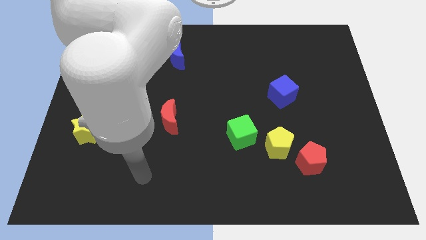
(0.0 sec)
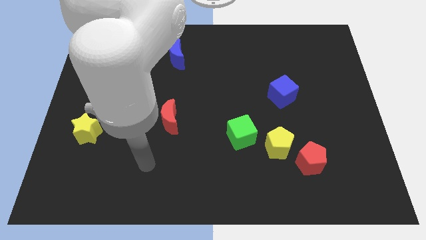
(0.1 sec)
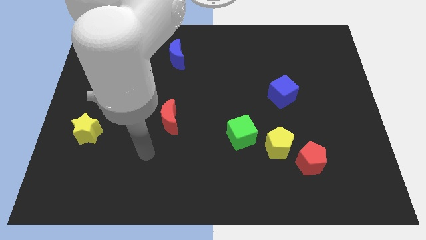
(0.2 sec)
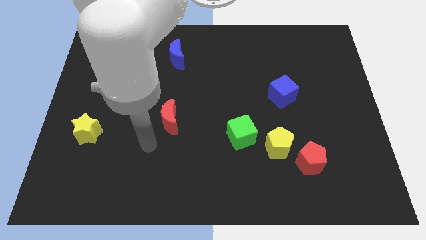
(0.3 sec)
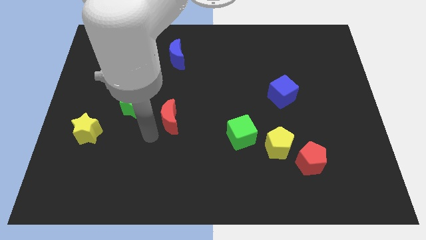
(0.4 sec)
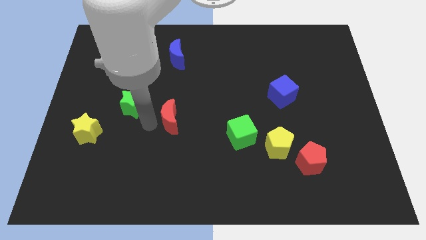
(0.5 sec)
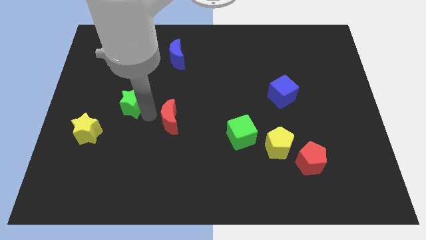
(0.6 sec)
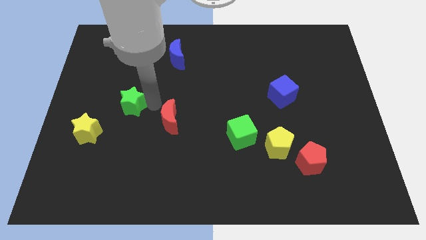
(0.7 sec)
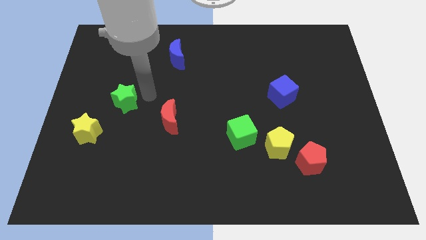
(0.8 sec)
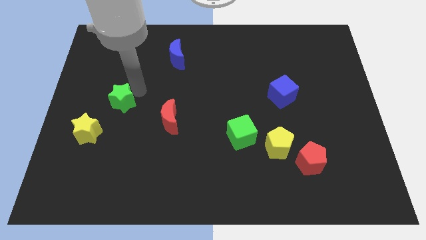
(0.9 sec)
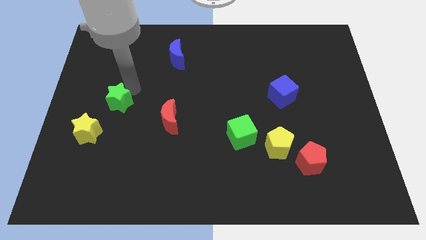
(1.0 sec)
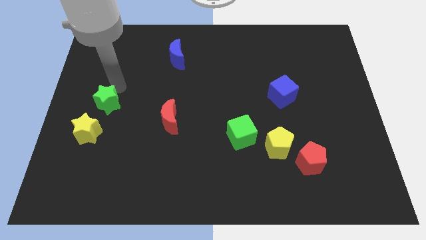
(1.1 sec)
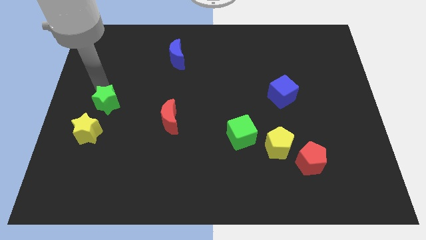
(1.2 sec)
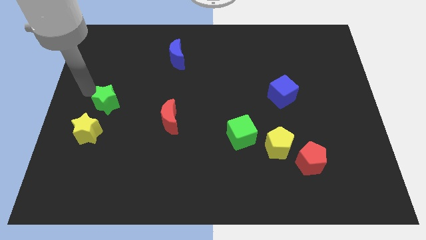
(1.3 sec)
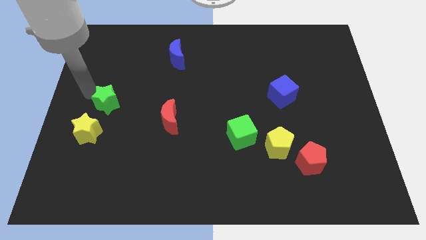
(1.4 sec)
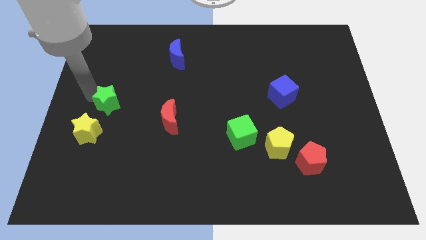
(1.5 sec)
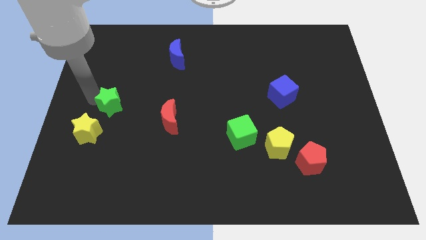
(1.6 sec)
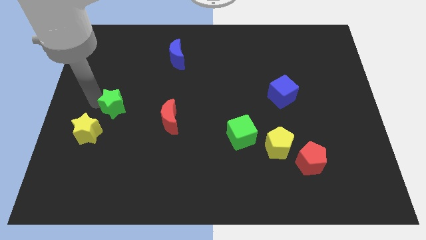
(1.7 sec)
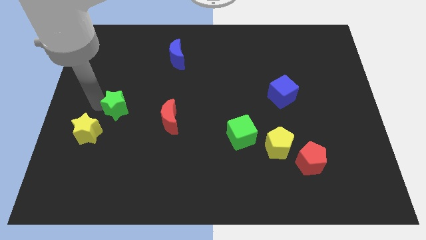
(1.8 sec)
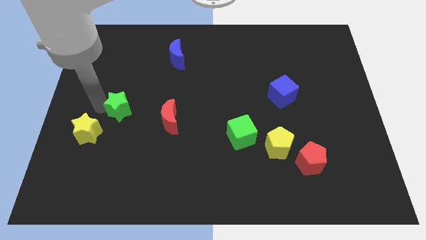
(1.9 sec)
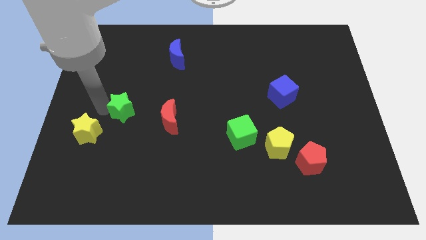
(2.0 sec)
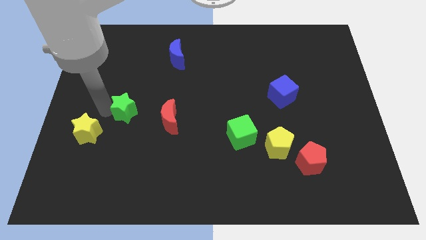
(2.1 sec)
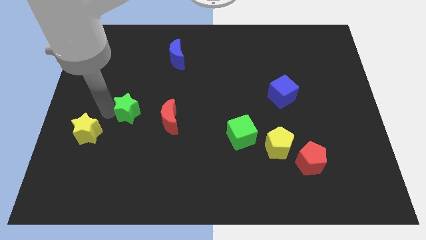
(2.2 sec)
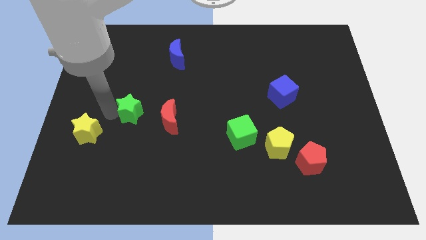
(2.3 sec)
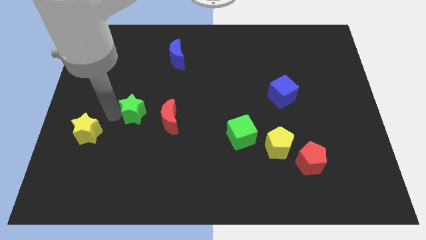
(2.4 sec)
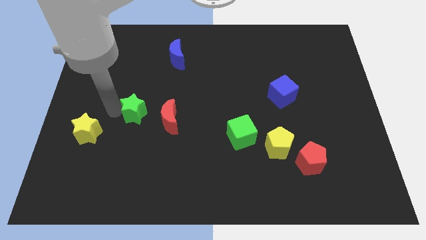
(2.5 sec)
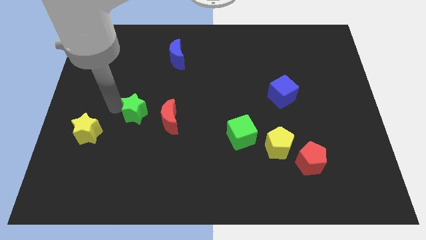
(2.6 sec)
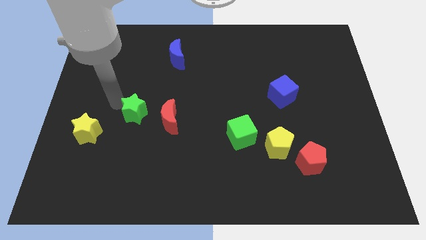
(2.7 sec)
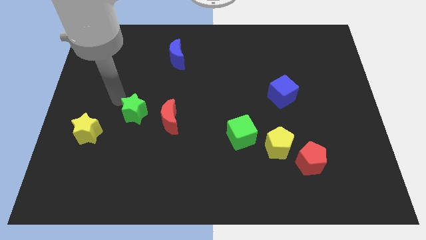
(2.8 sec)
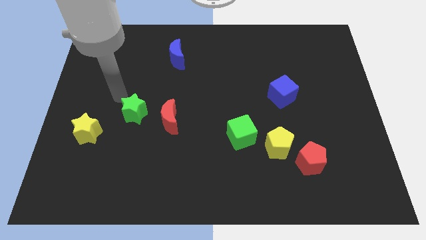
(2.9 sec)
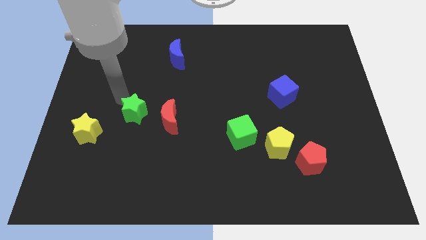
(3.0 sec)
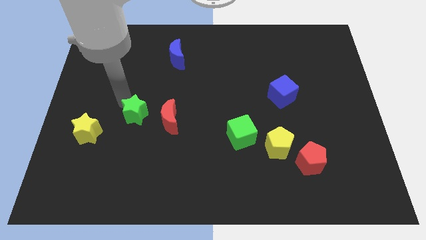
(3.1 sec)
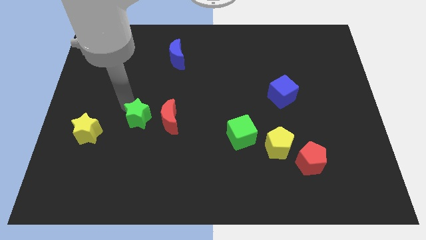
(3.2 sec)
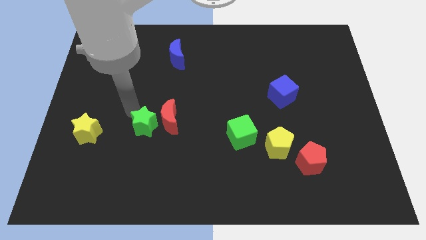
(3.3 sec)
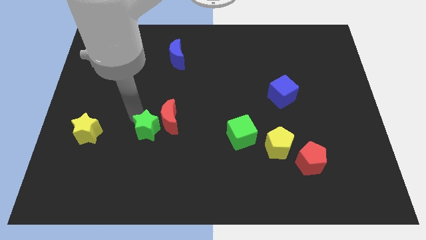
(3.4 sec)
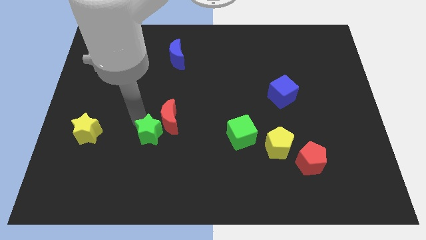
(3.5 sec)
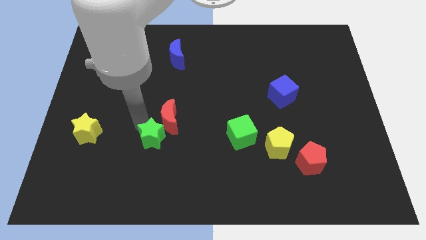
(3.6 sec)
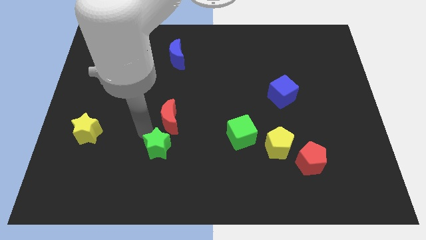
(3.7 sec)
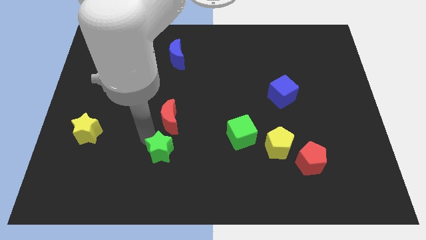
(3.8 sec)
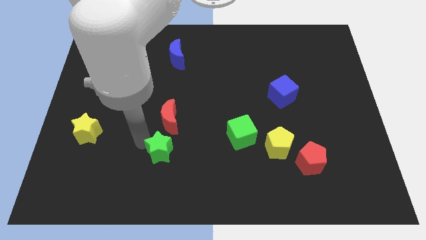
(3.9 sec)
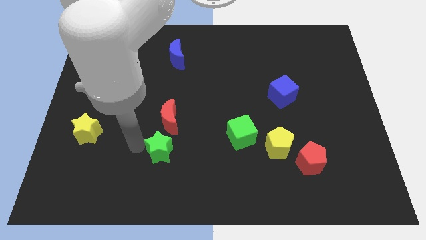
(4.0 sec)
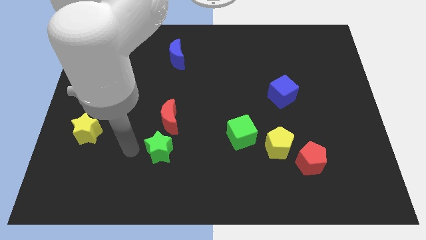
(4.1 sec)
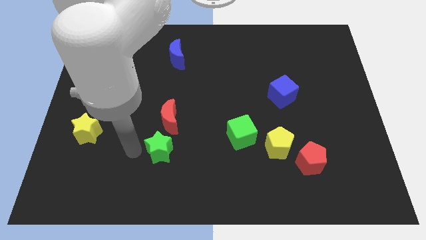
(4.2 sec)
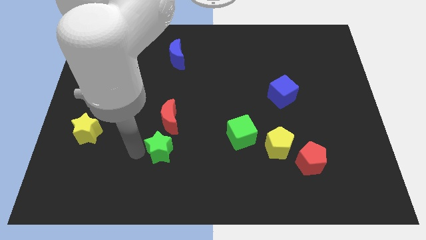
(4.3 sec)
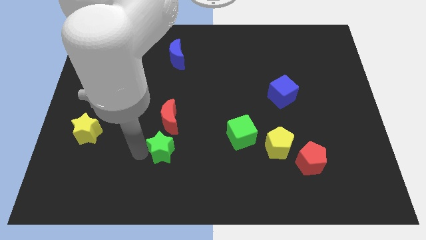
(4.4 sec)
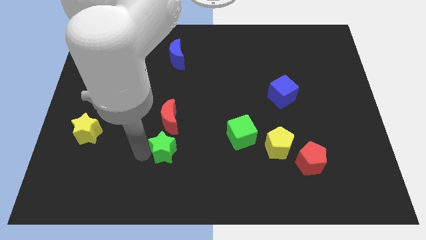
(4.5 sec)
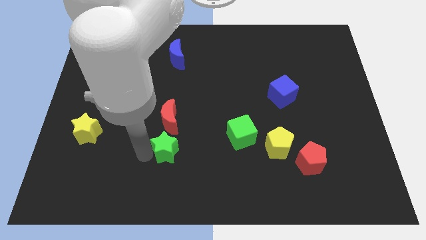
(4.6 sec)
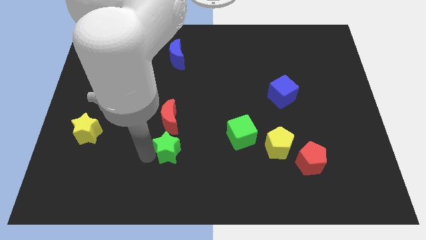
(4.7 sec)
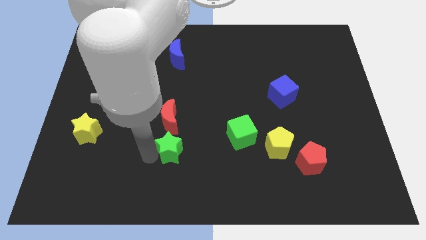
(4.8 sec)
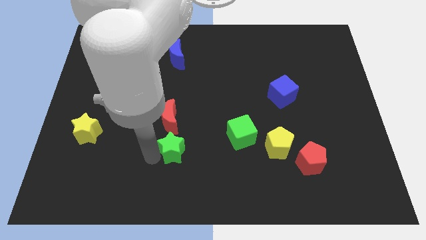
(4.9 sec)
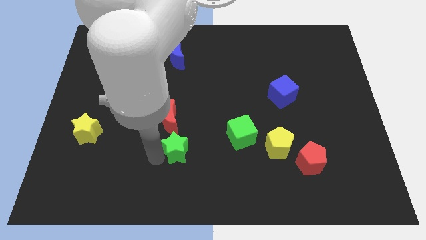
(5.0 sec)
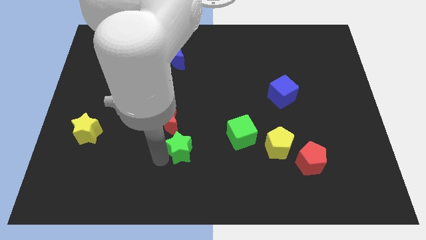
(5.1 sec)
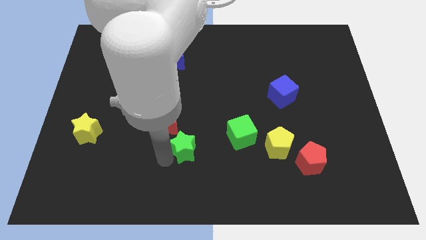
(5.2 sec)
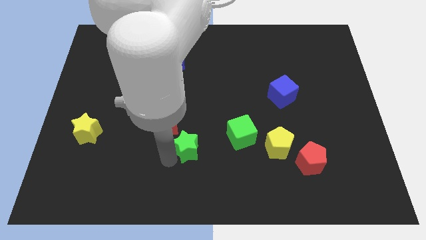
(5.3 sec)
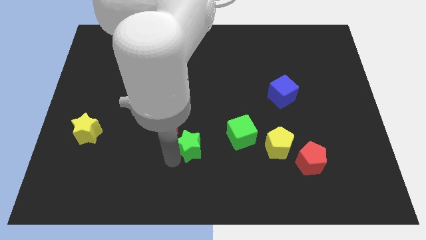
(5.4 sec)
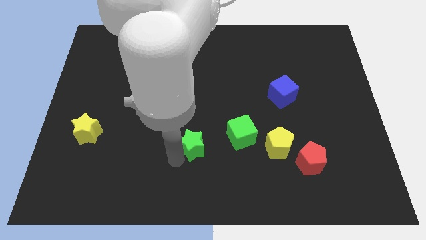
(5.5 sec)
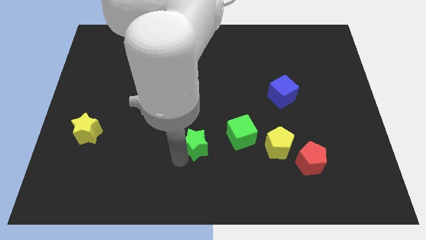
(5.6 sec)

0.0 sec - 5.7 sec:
push the green star to the bottom left of the green cube

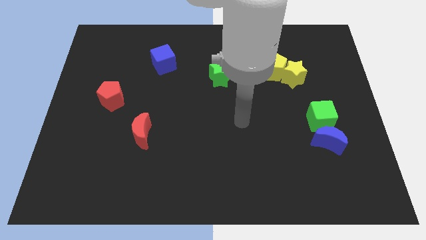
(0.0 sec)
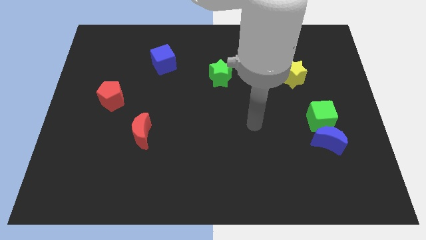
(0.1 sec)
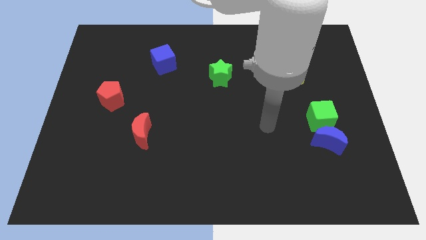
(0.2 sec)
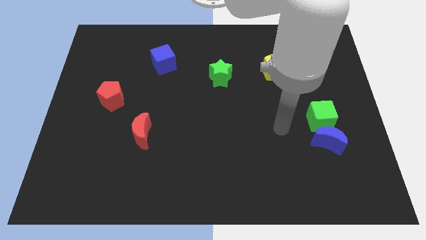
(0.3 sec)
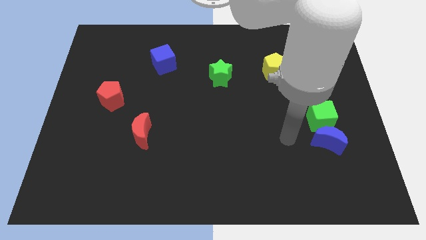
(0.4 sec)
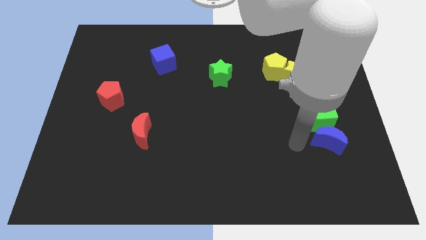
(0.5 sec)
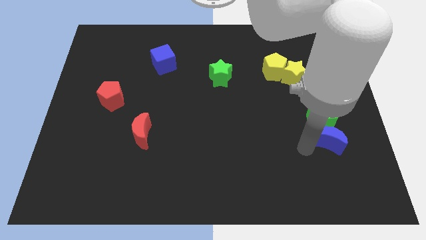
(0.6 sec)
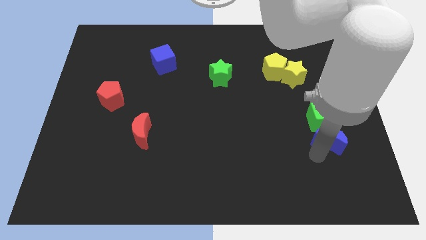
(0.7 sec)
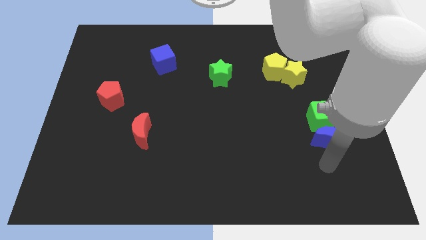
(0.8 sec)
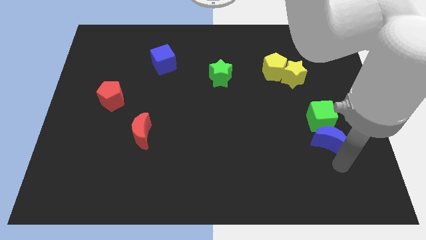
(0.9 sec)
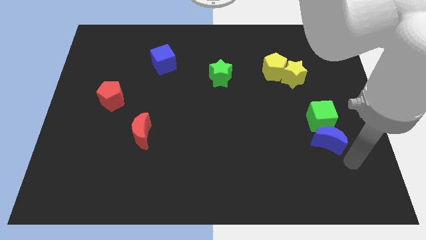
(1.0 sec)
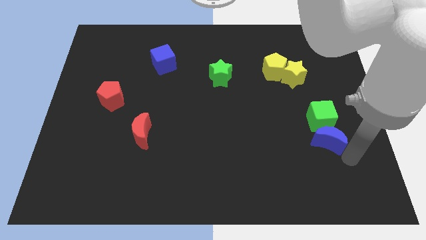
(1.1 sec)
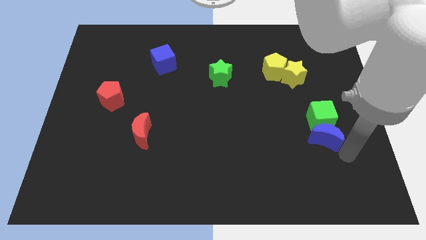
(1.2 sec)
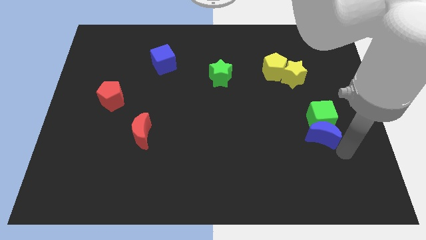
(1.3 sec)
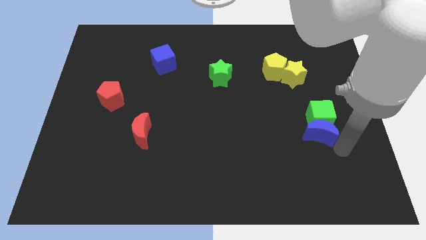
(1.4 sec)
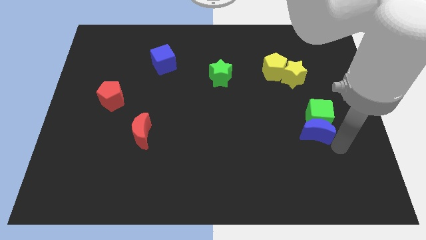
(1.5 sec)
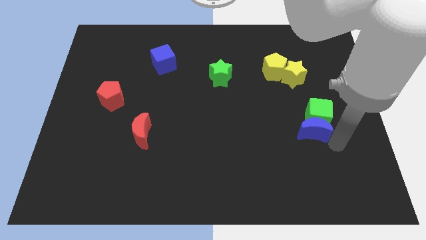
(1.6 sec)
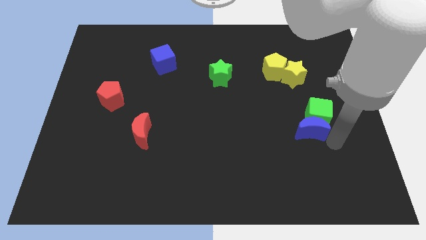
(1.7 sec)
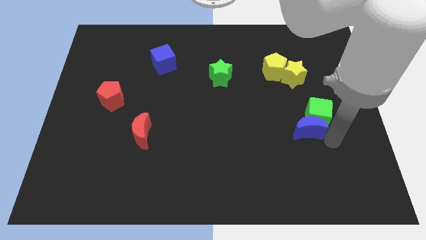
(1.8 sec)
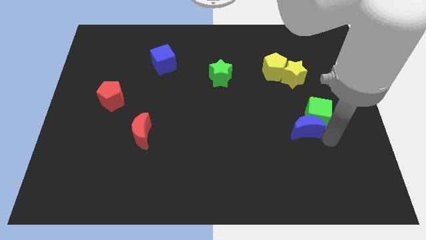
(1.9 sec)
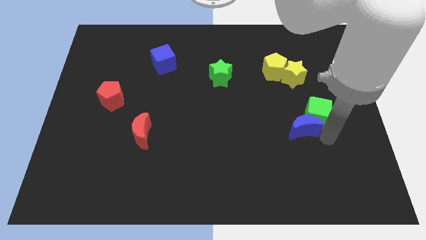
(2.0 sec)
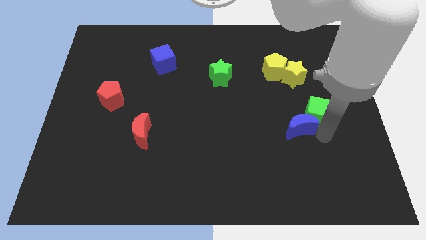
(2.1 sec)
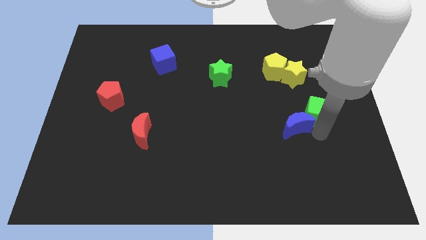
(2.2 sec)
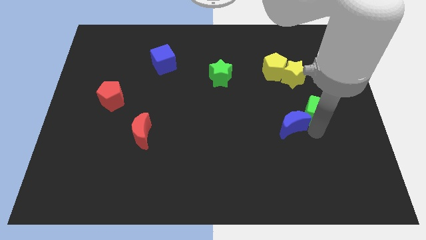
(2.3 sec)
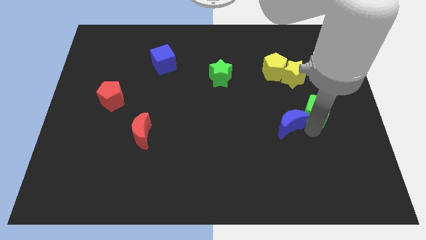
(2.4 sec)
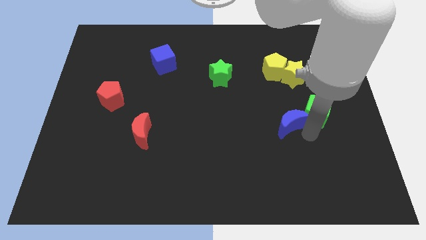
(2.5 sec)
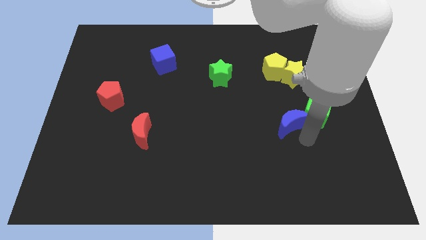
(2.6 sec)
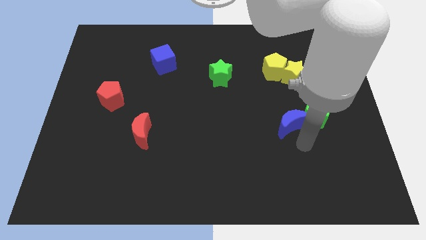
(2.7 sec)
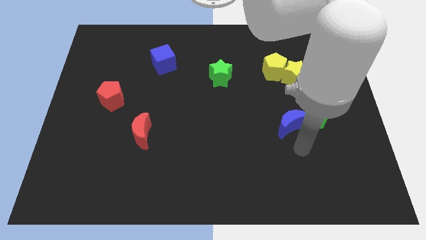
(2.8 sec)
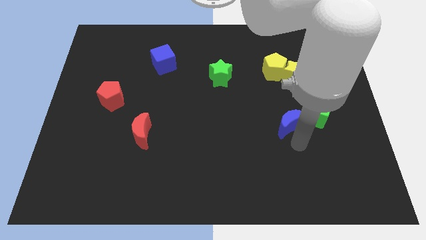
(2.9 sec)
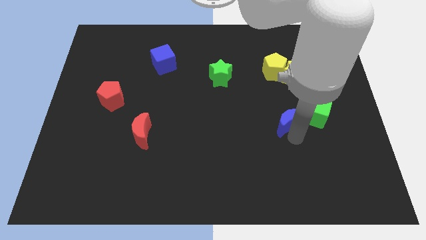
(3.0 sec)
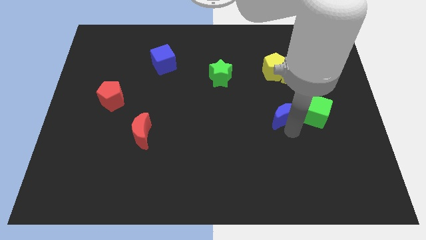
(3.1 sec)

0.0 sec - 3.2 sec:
put the blue moon to the bottom side of the yellow pentagon
